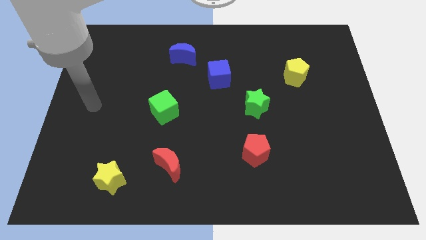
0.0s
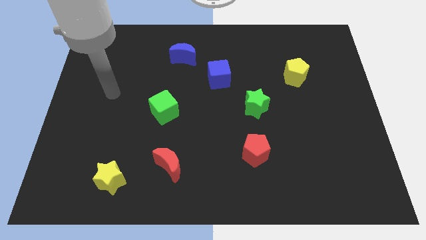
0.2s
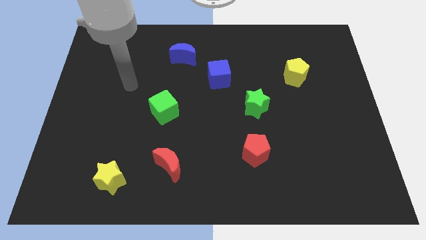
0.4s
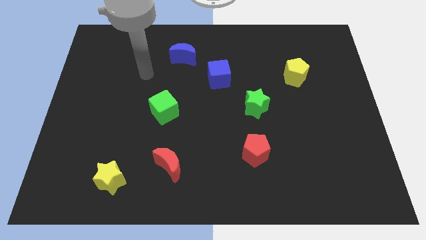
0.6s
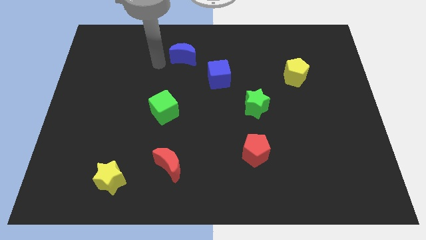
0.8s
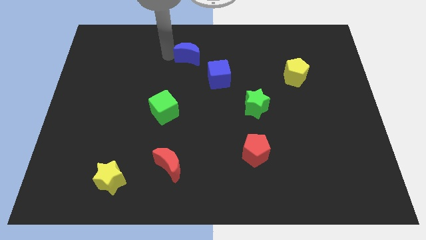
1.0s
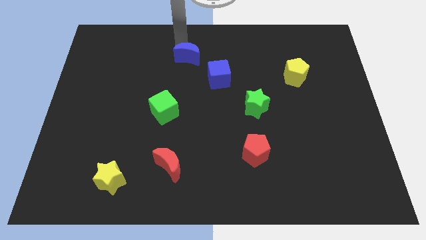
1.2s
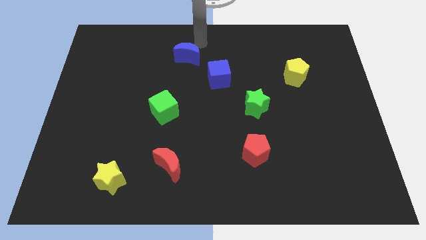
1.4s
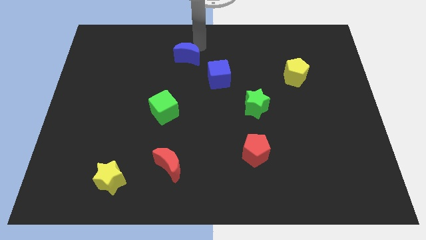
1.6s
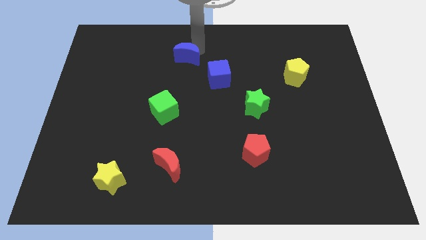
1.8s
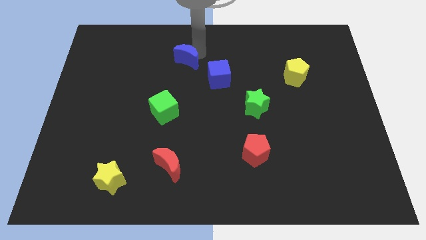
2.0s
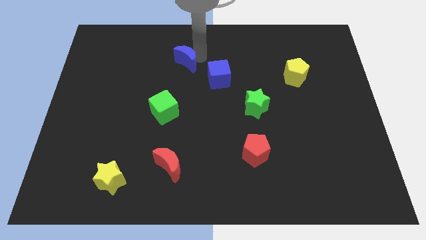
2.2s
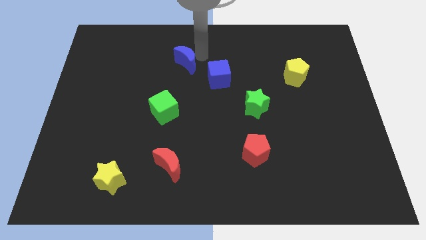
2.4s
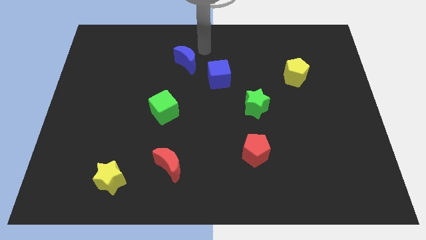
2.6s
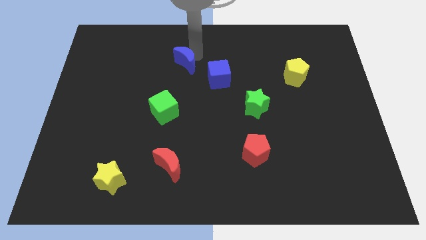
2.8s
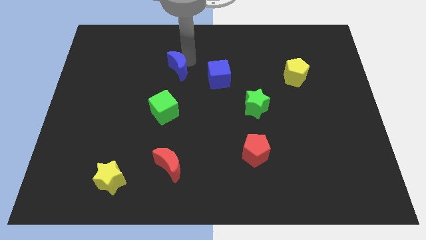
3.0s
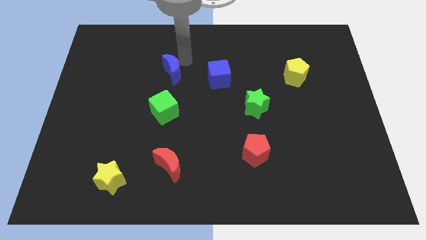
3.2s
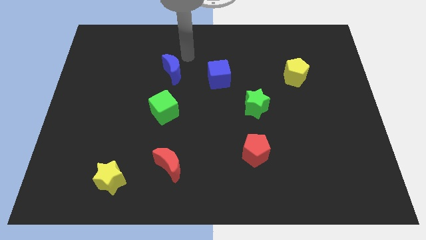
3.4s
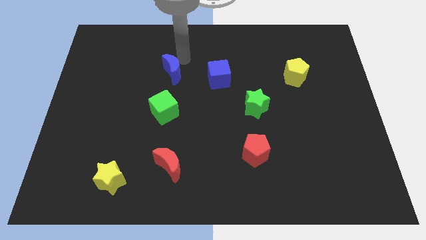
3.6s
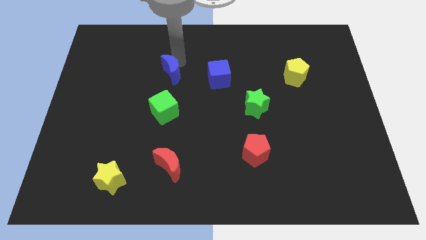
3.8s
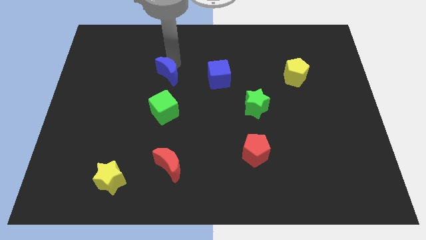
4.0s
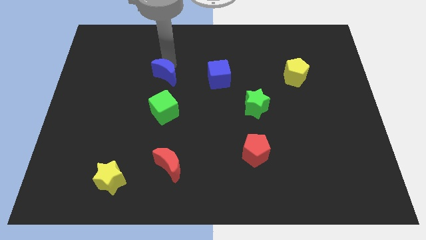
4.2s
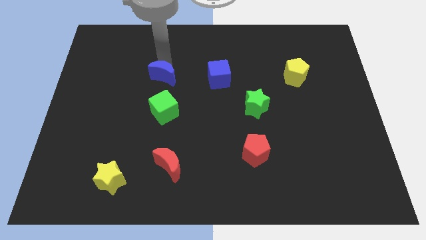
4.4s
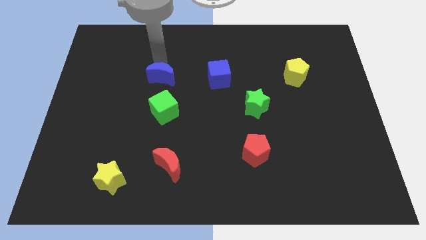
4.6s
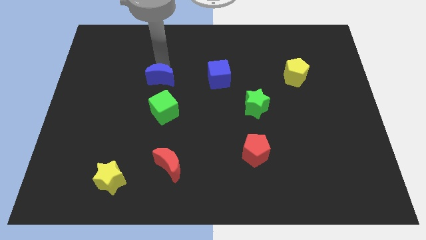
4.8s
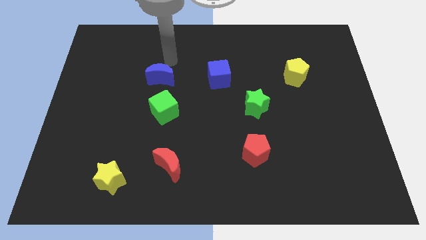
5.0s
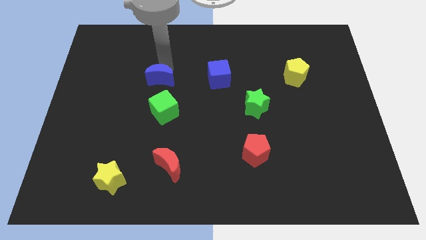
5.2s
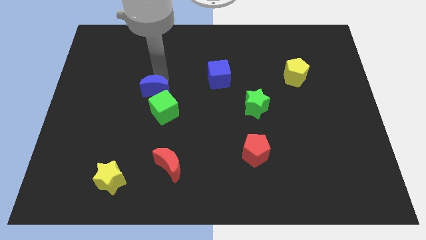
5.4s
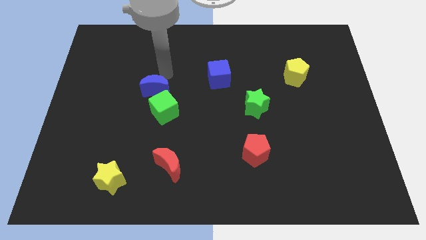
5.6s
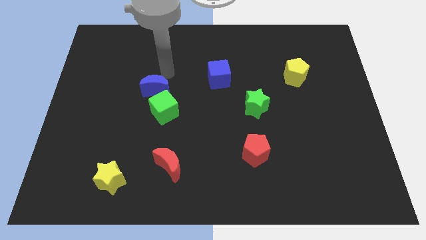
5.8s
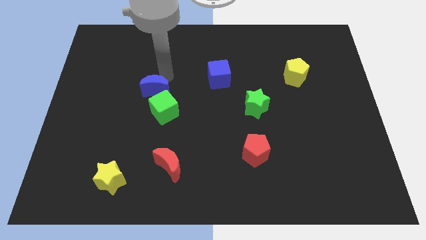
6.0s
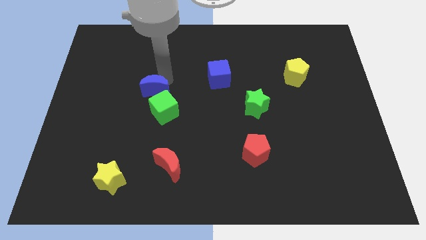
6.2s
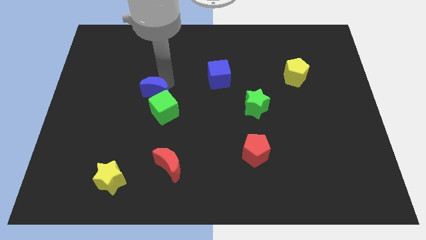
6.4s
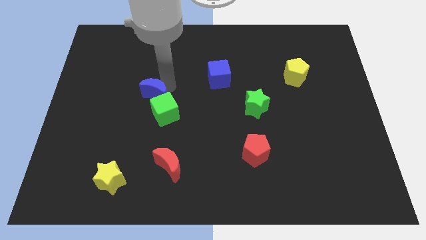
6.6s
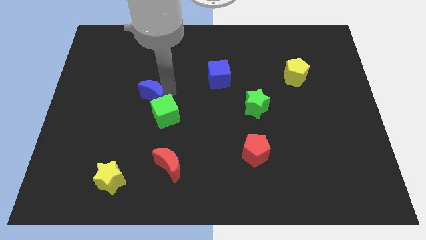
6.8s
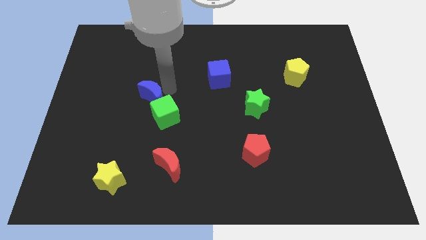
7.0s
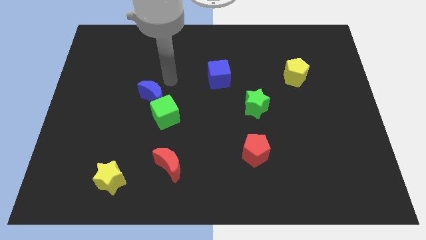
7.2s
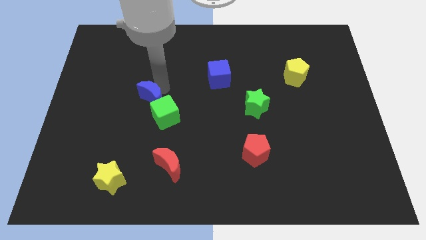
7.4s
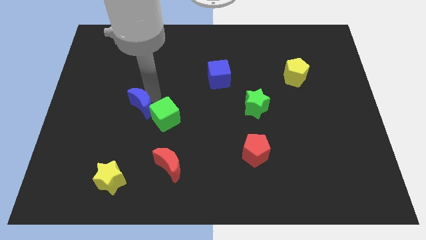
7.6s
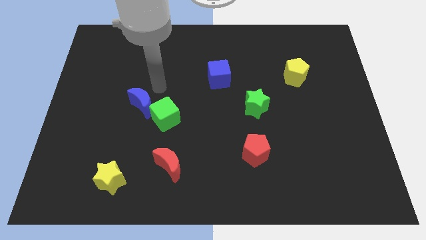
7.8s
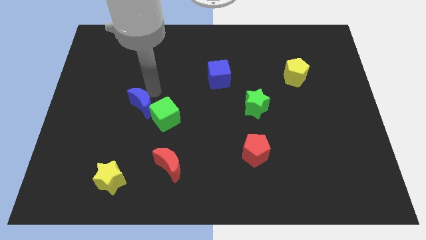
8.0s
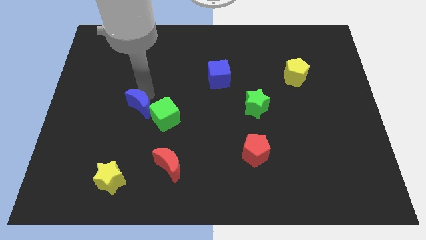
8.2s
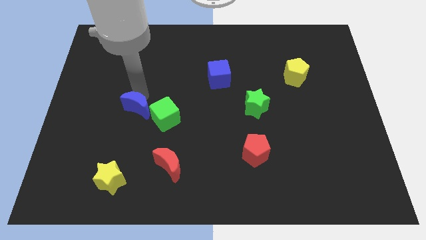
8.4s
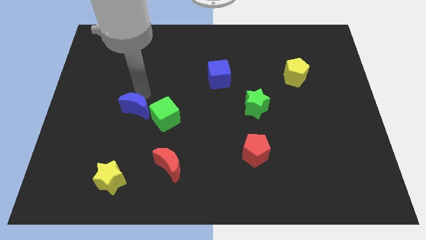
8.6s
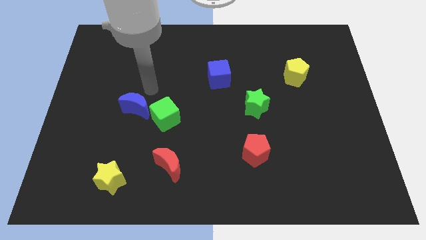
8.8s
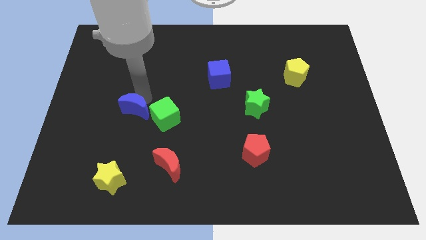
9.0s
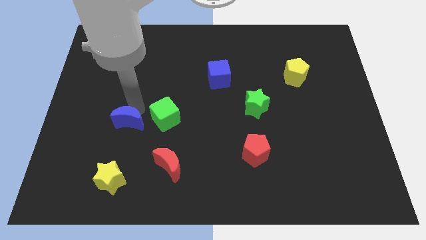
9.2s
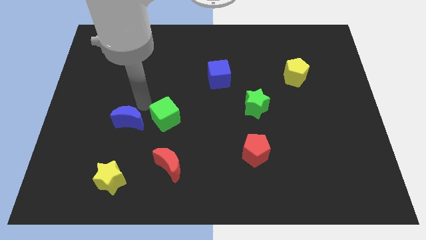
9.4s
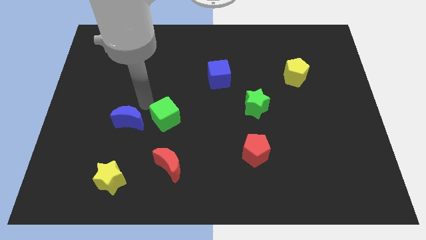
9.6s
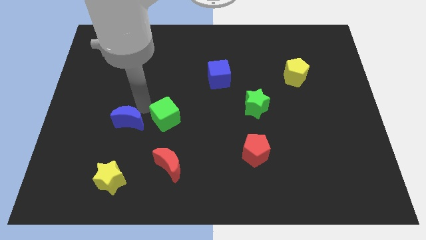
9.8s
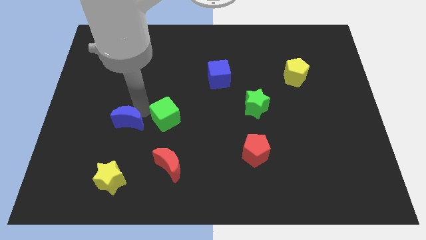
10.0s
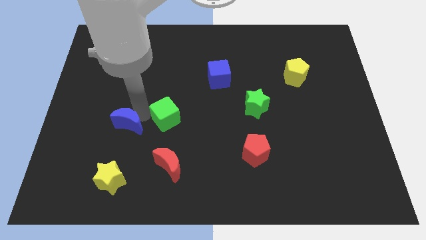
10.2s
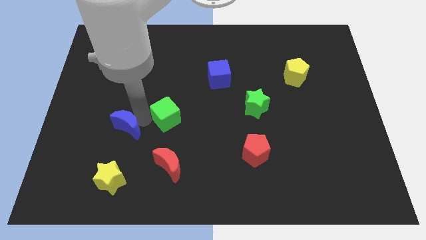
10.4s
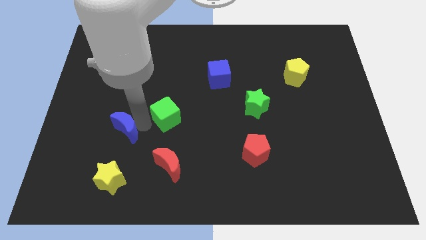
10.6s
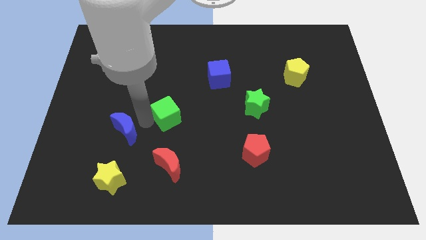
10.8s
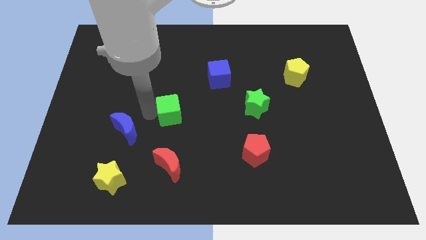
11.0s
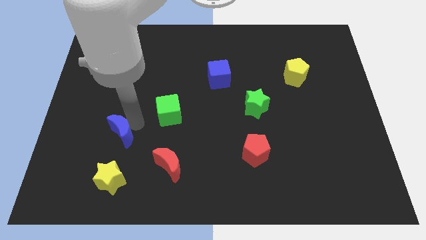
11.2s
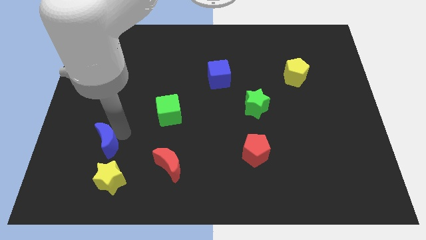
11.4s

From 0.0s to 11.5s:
slide the blue moon to the top left of the yellow star

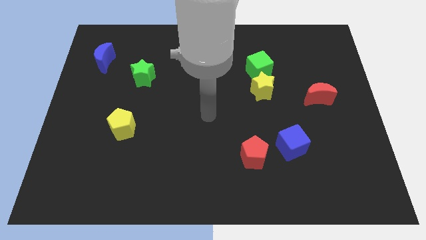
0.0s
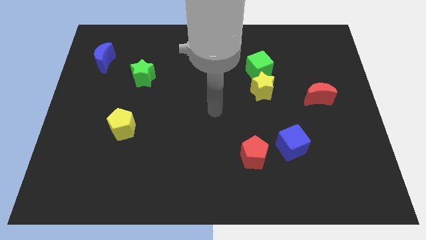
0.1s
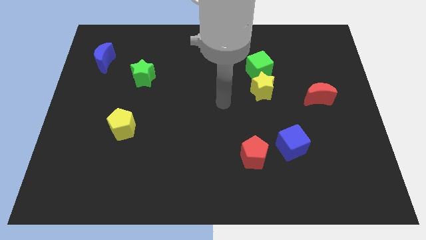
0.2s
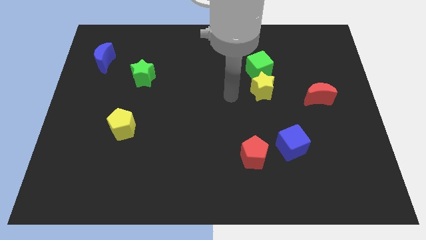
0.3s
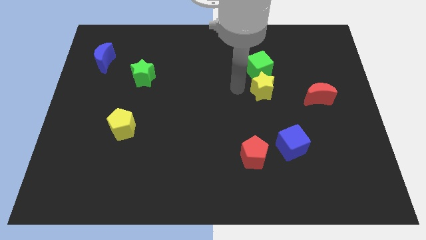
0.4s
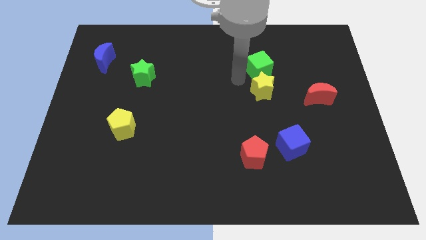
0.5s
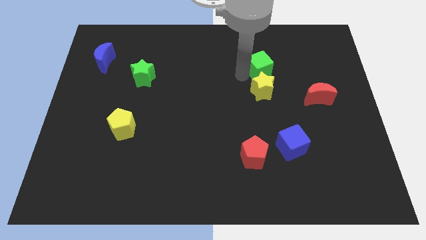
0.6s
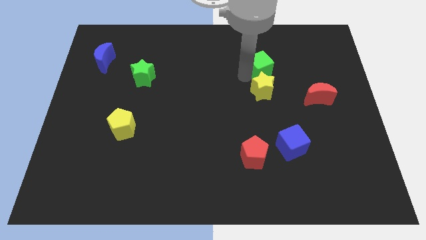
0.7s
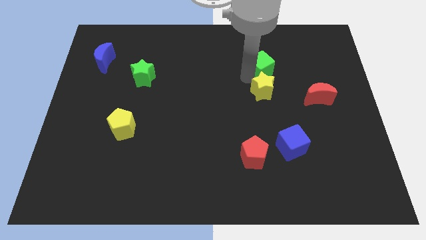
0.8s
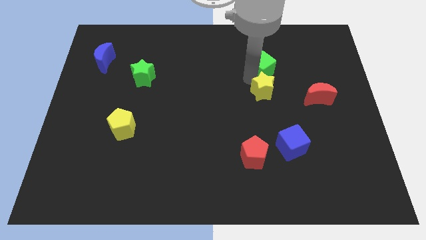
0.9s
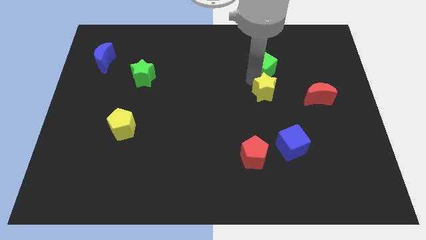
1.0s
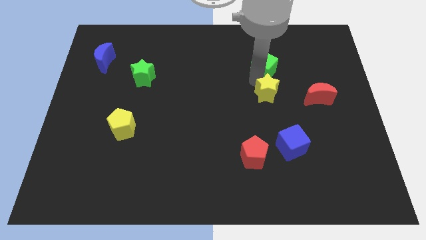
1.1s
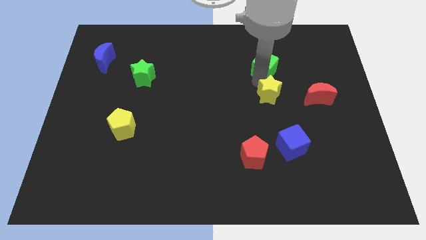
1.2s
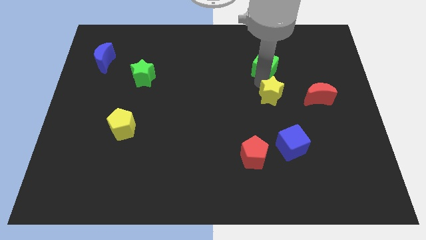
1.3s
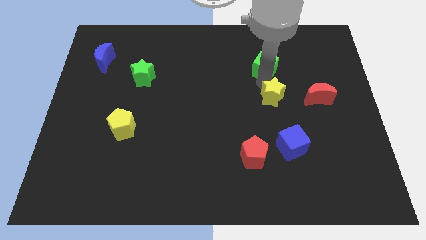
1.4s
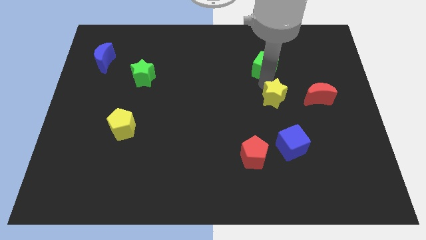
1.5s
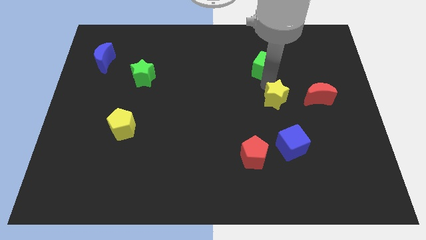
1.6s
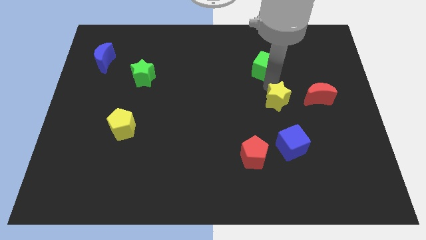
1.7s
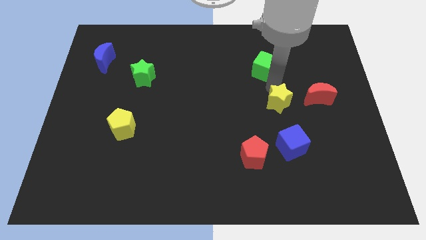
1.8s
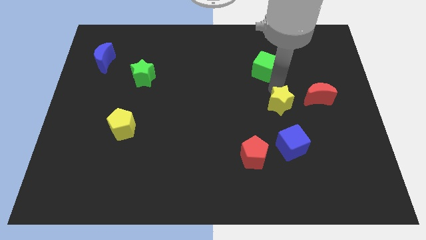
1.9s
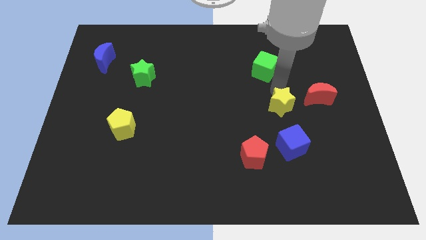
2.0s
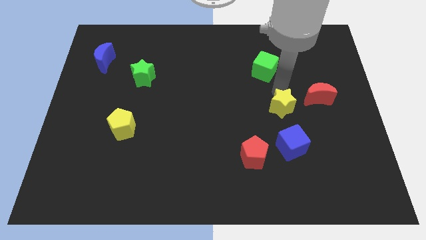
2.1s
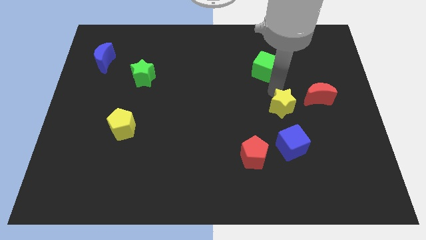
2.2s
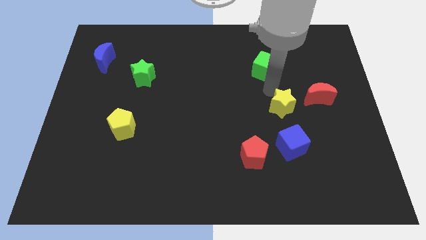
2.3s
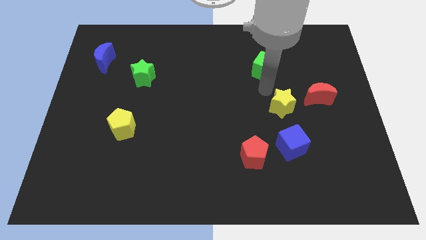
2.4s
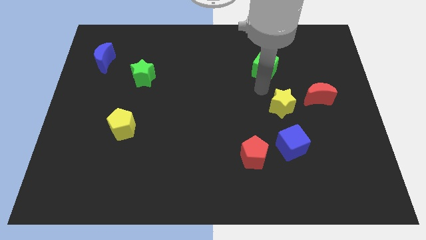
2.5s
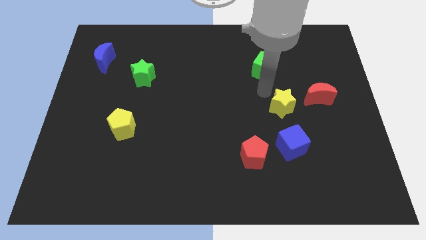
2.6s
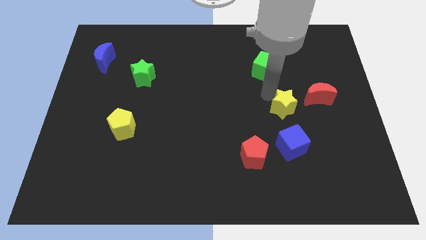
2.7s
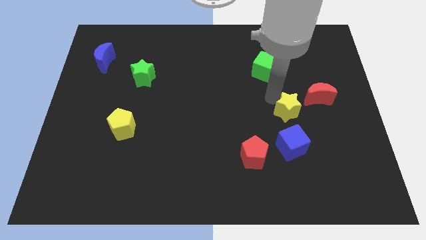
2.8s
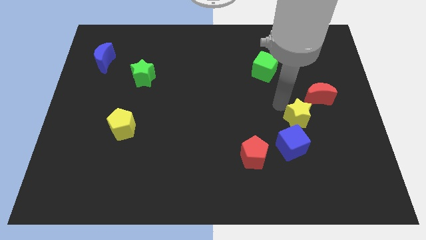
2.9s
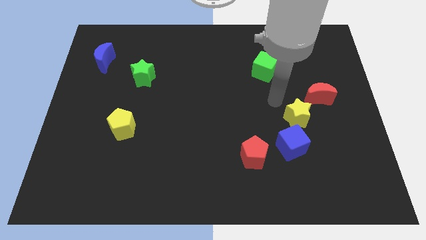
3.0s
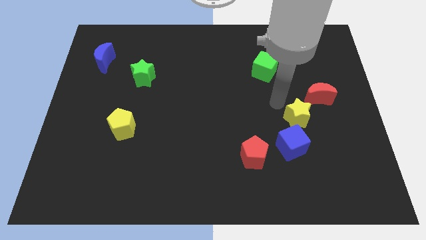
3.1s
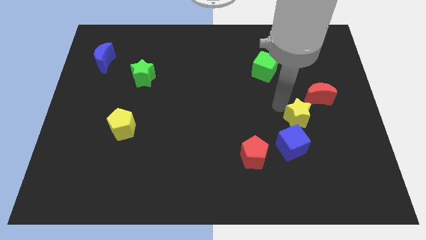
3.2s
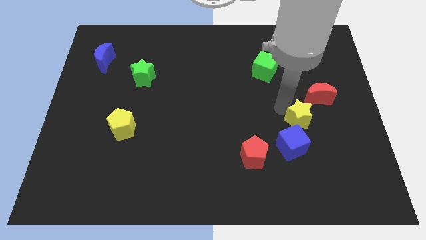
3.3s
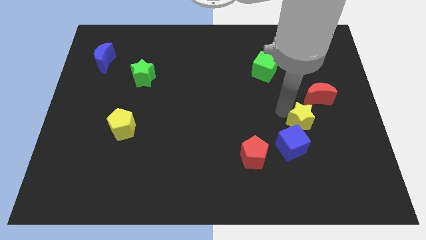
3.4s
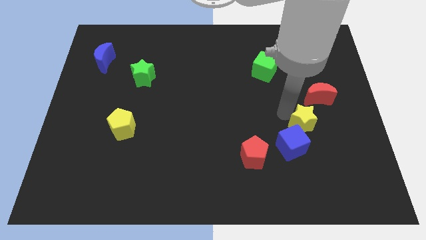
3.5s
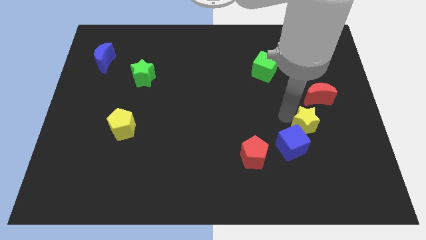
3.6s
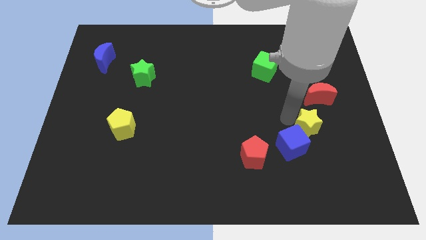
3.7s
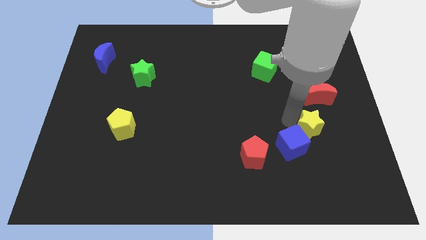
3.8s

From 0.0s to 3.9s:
move the yellow star to the right side of the blue cube
